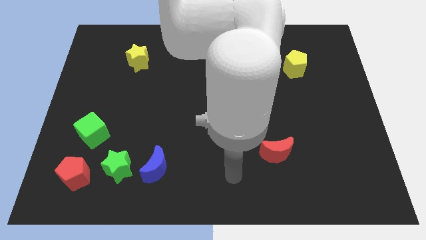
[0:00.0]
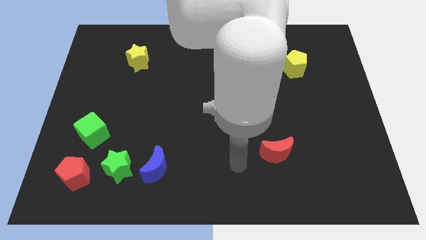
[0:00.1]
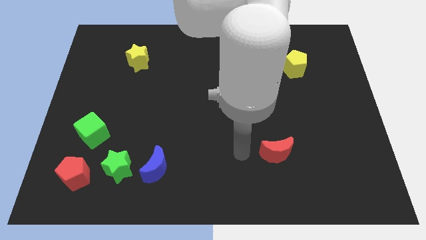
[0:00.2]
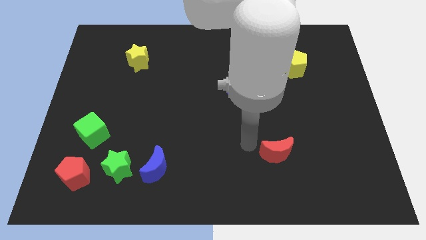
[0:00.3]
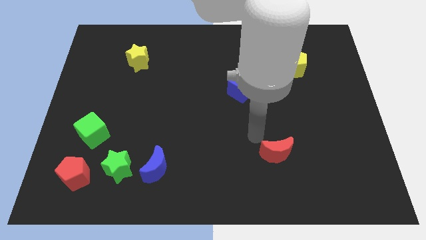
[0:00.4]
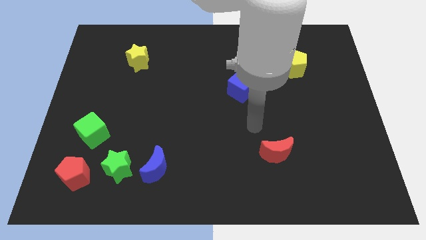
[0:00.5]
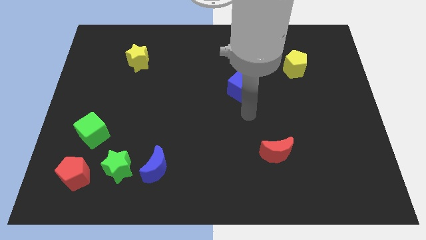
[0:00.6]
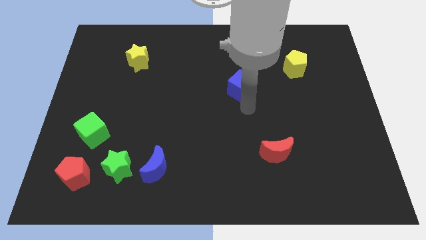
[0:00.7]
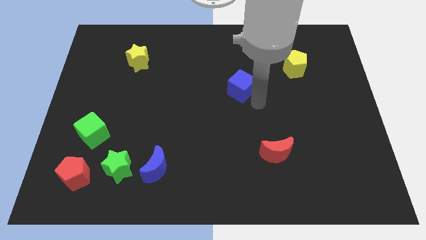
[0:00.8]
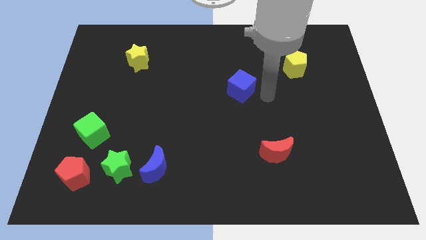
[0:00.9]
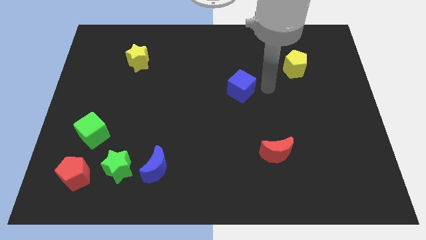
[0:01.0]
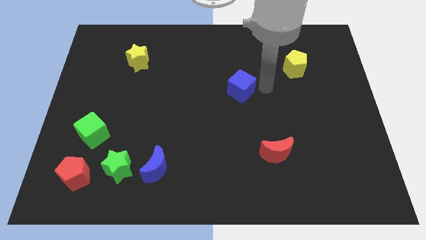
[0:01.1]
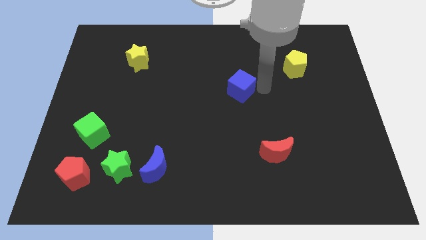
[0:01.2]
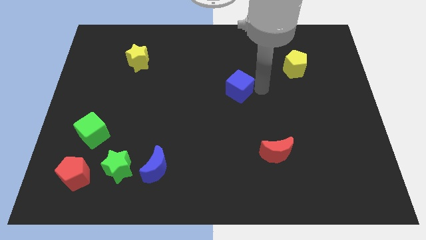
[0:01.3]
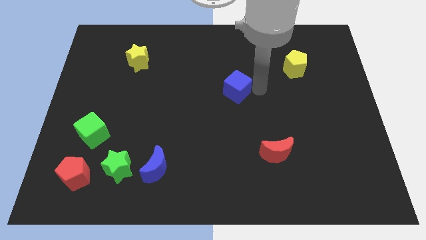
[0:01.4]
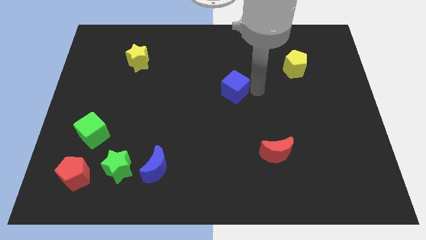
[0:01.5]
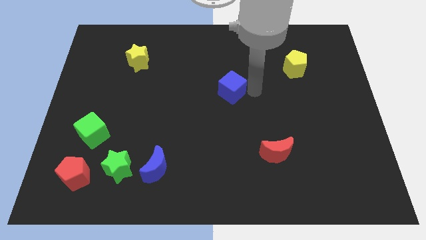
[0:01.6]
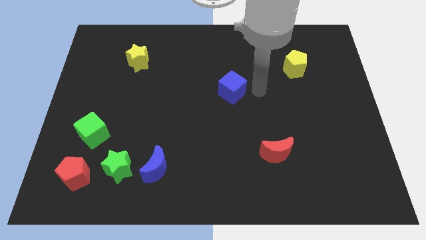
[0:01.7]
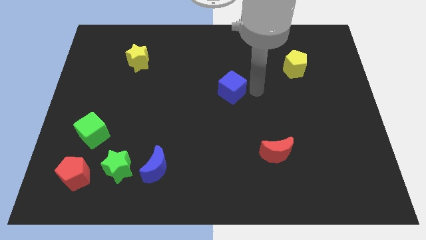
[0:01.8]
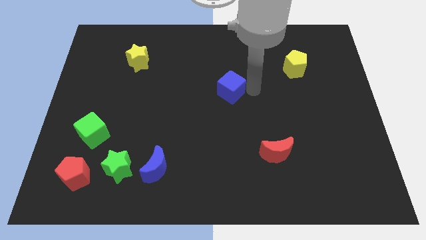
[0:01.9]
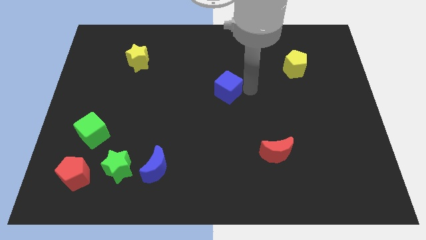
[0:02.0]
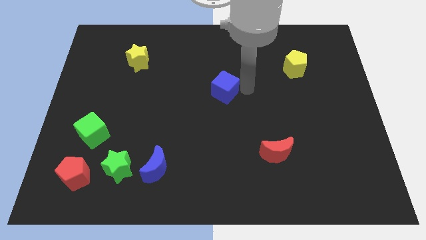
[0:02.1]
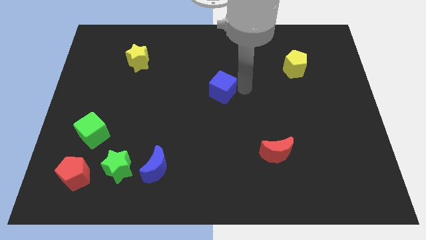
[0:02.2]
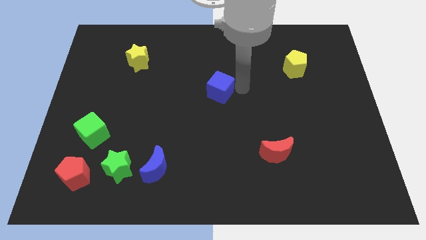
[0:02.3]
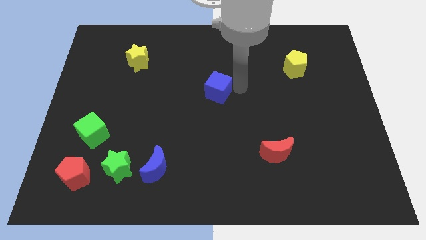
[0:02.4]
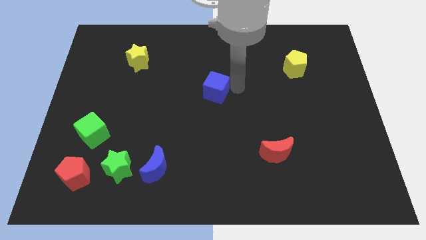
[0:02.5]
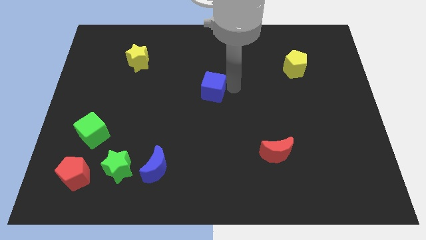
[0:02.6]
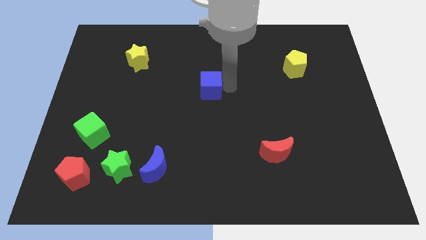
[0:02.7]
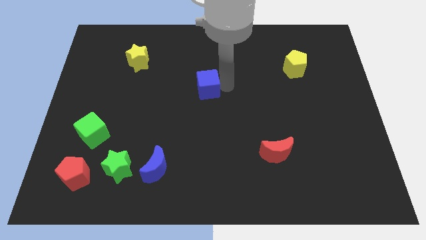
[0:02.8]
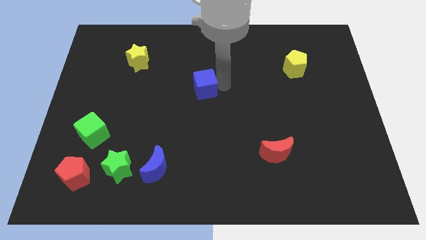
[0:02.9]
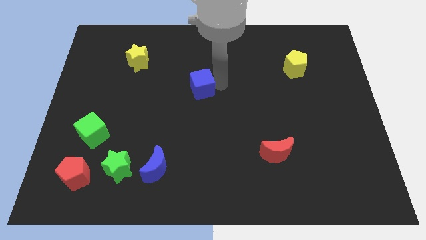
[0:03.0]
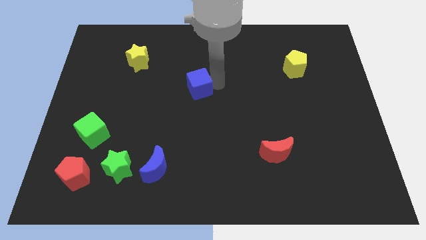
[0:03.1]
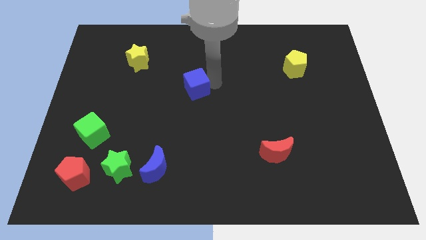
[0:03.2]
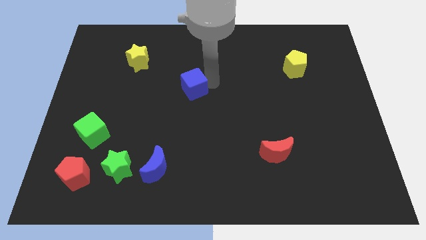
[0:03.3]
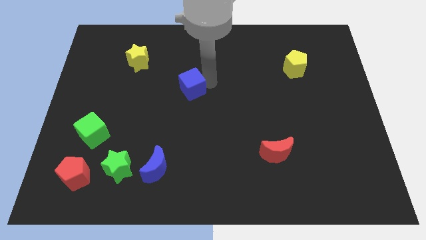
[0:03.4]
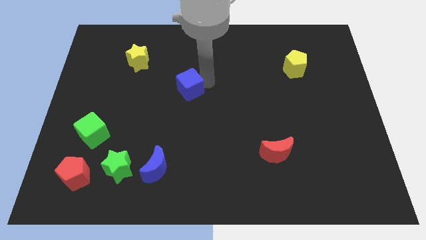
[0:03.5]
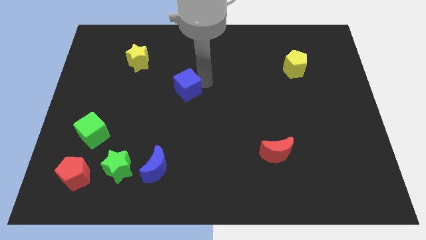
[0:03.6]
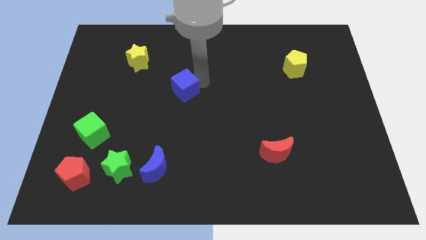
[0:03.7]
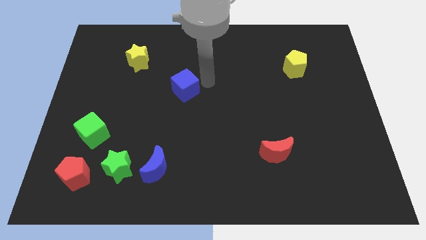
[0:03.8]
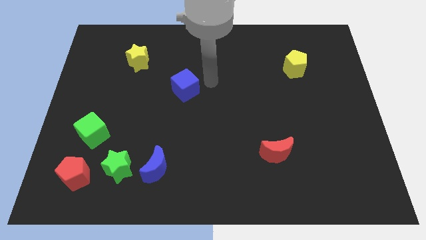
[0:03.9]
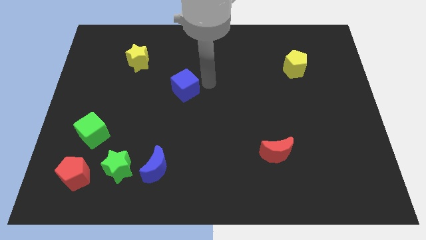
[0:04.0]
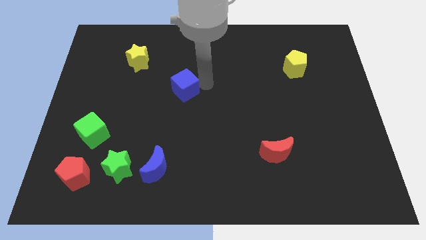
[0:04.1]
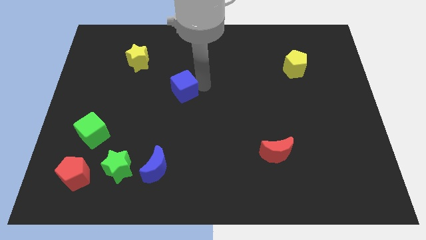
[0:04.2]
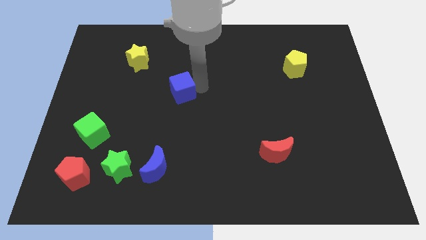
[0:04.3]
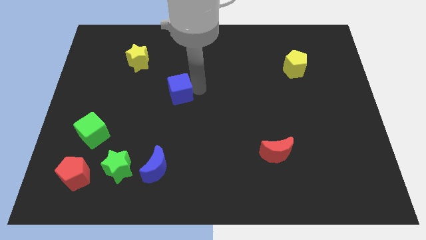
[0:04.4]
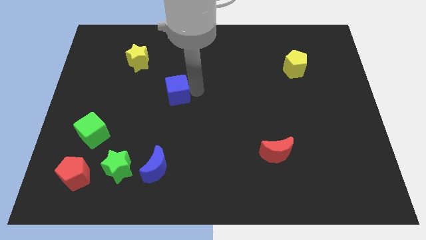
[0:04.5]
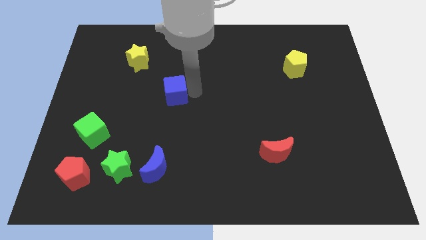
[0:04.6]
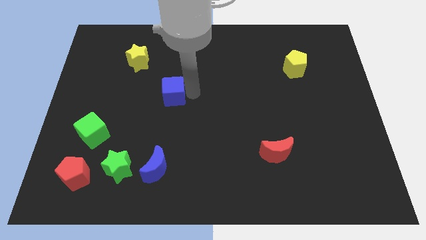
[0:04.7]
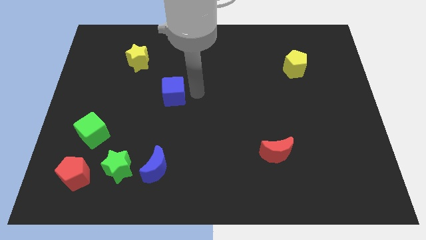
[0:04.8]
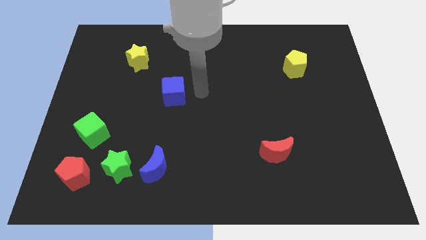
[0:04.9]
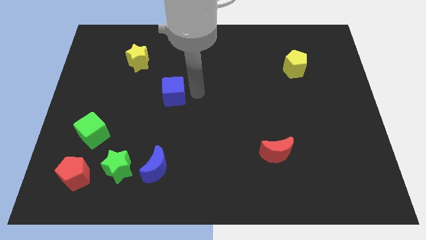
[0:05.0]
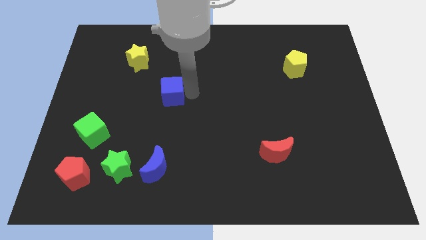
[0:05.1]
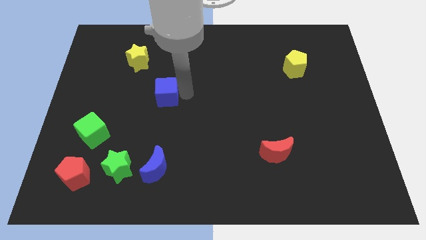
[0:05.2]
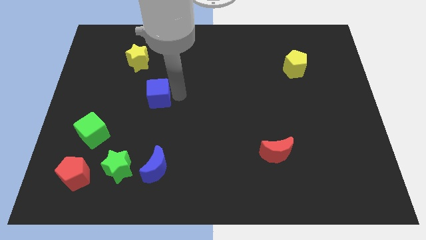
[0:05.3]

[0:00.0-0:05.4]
push the blue cube left

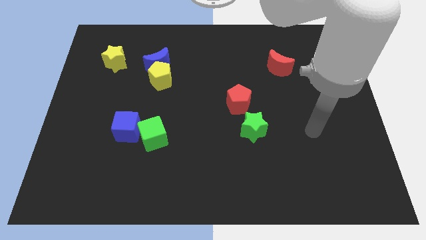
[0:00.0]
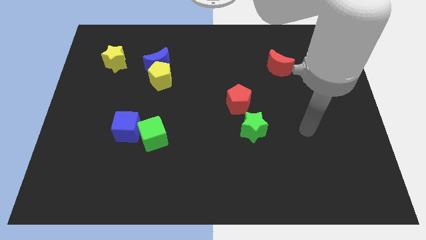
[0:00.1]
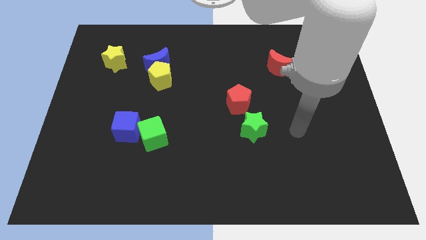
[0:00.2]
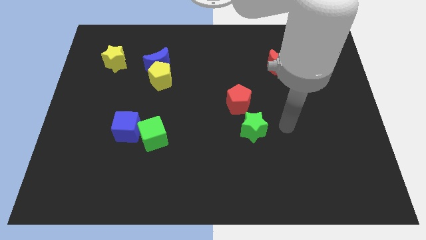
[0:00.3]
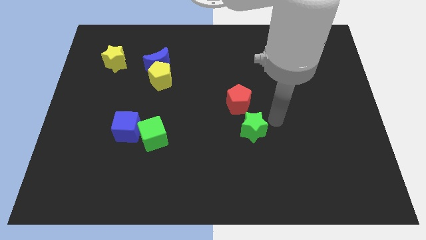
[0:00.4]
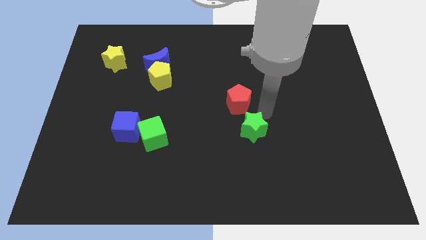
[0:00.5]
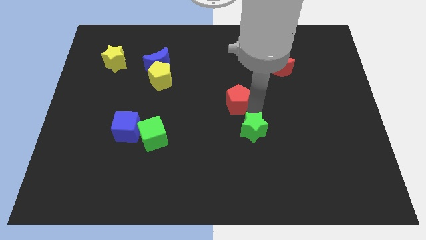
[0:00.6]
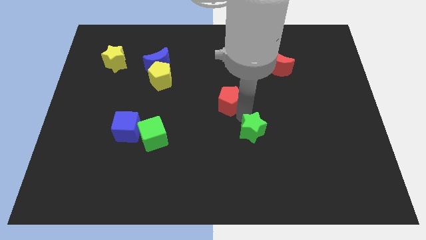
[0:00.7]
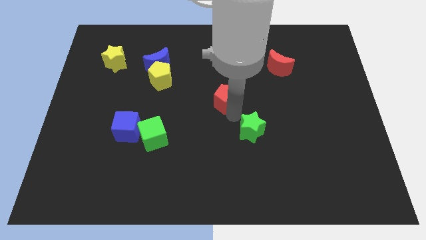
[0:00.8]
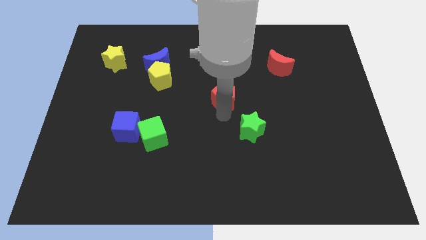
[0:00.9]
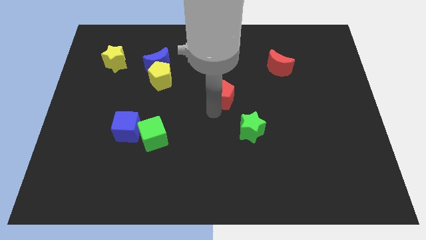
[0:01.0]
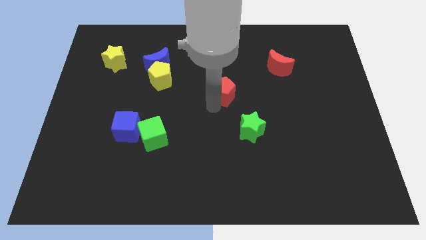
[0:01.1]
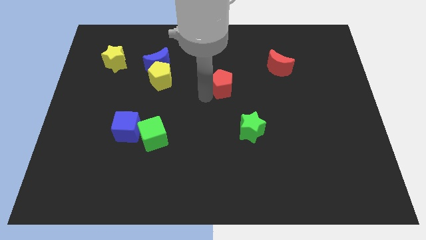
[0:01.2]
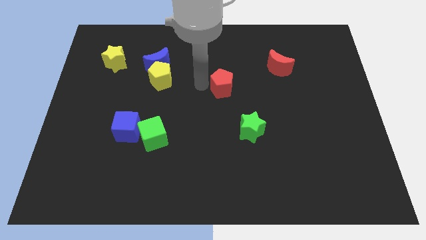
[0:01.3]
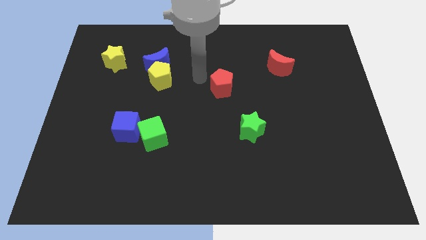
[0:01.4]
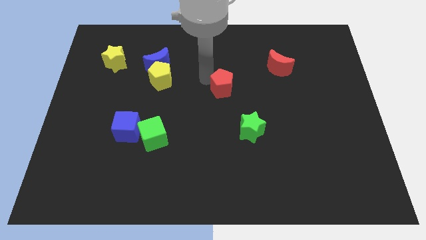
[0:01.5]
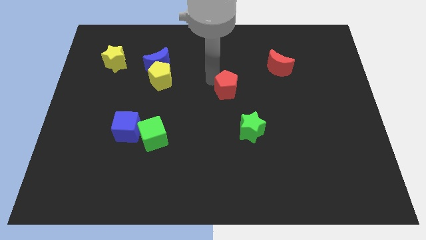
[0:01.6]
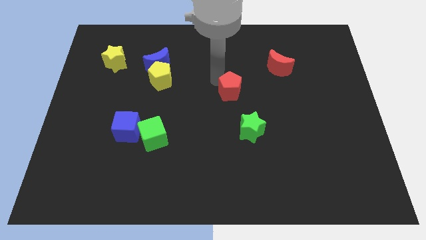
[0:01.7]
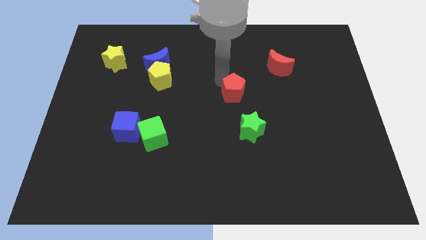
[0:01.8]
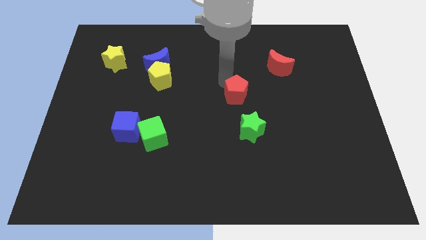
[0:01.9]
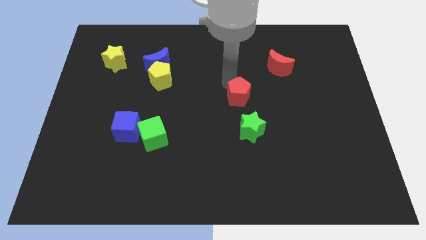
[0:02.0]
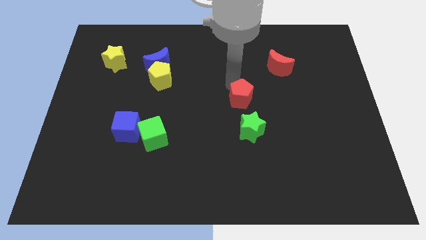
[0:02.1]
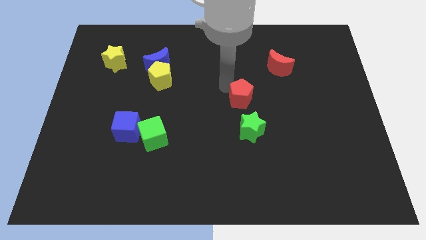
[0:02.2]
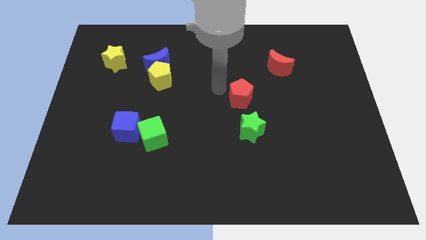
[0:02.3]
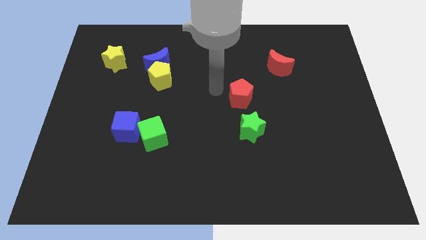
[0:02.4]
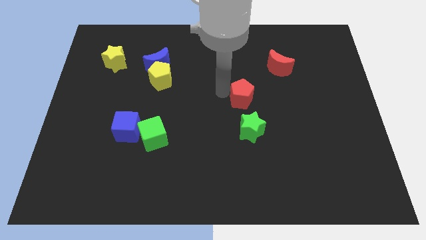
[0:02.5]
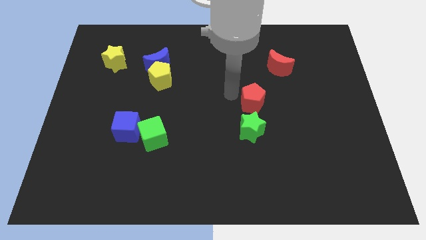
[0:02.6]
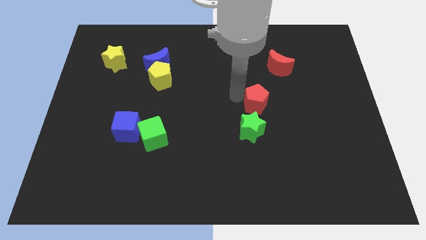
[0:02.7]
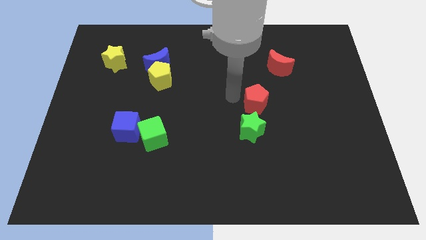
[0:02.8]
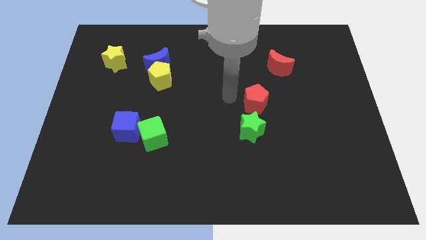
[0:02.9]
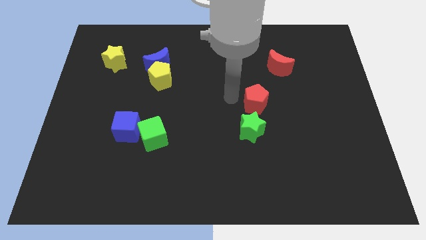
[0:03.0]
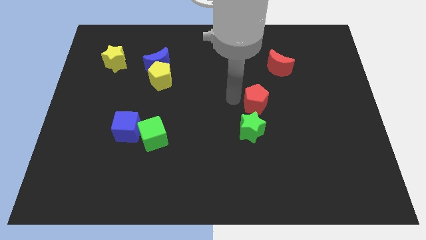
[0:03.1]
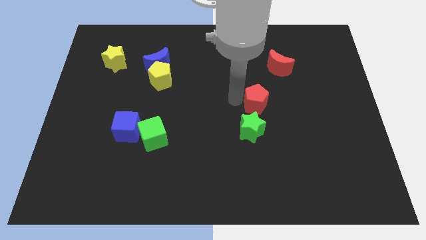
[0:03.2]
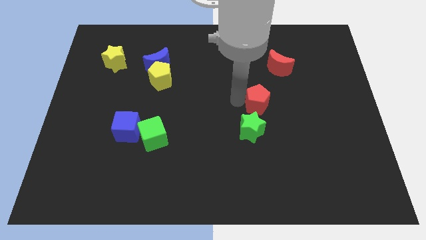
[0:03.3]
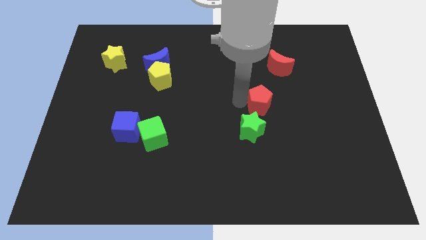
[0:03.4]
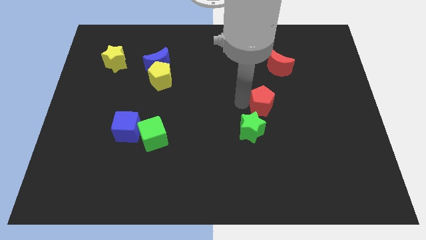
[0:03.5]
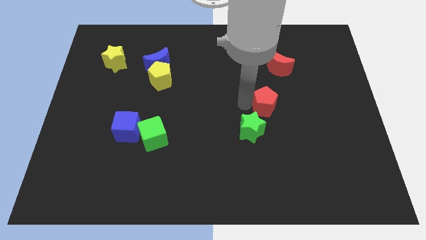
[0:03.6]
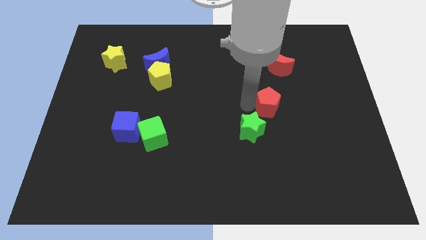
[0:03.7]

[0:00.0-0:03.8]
slide the red pentagon slightly to the right
